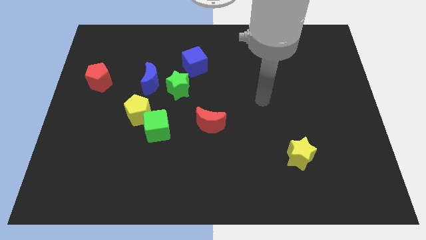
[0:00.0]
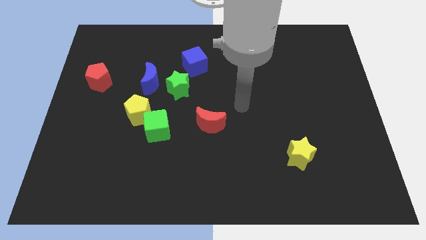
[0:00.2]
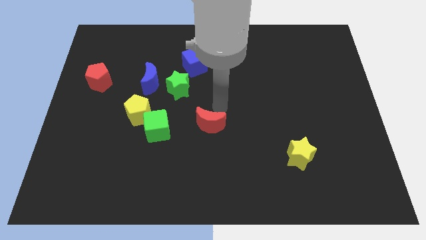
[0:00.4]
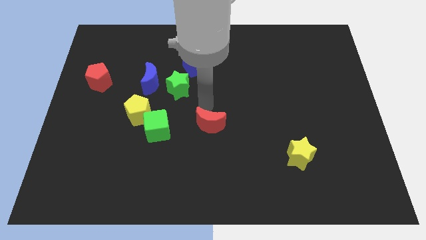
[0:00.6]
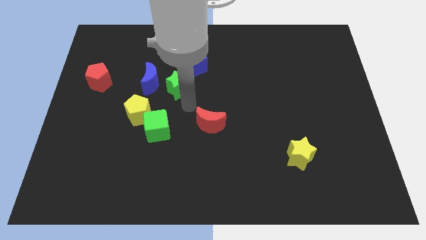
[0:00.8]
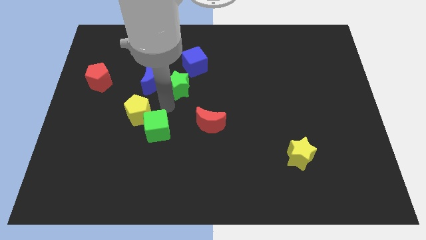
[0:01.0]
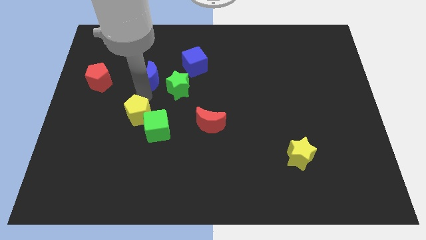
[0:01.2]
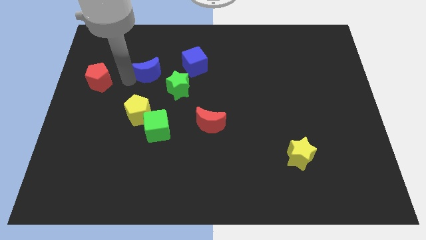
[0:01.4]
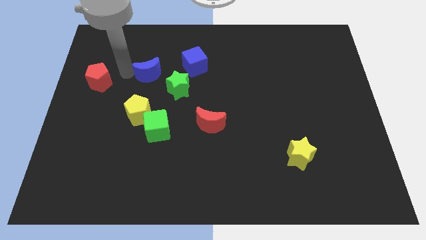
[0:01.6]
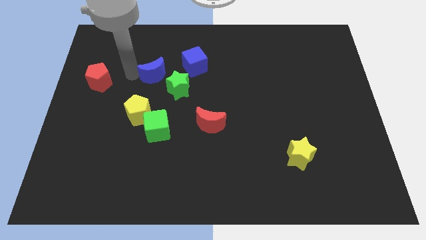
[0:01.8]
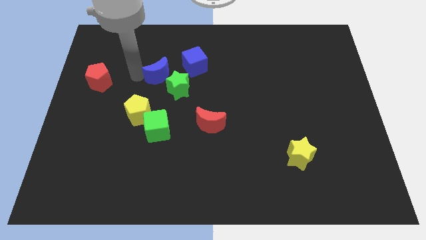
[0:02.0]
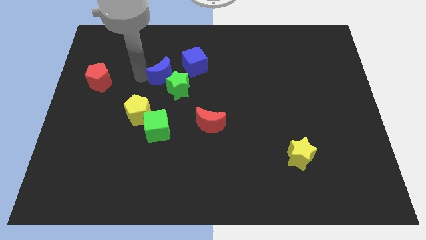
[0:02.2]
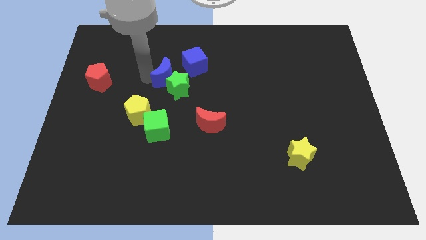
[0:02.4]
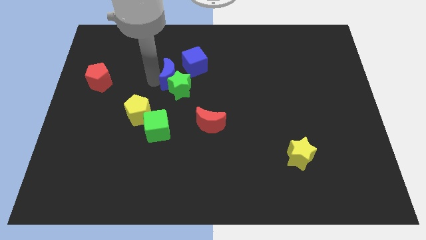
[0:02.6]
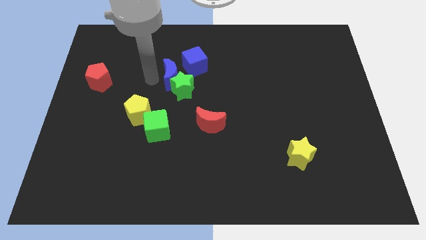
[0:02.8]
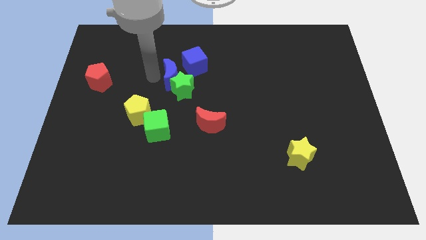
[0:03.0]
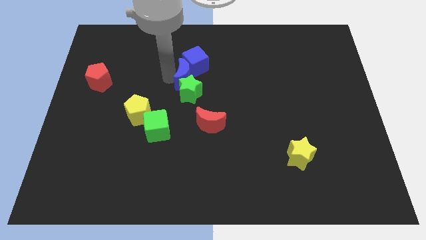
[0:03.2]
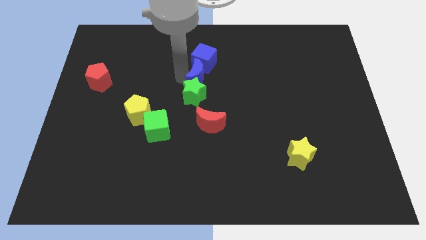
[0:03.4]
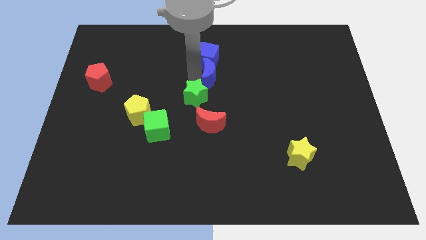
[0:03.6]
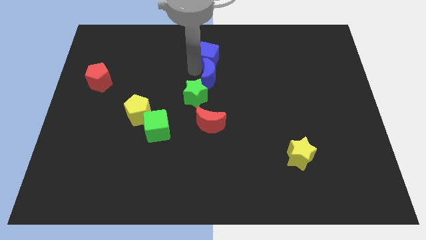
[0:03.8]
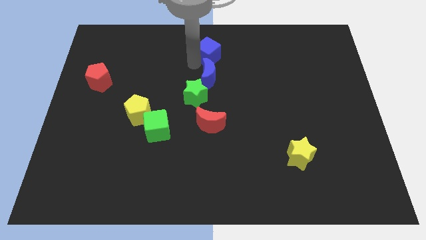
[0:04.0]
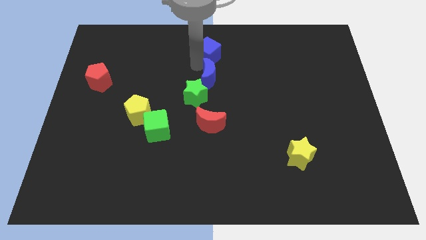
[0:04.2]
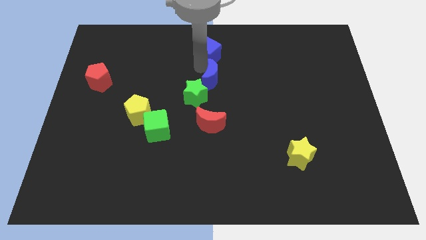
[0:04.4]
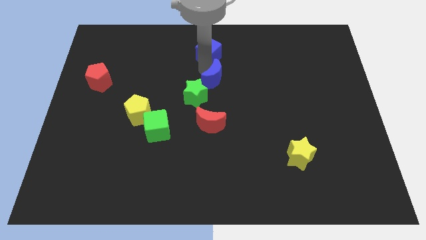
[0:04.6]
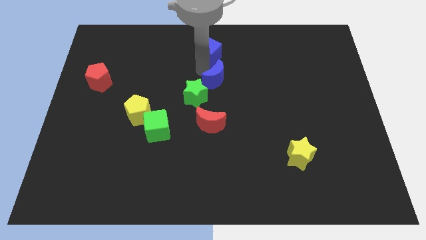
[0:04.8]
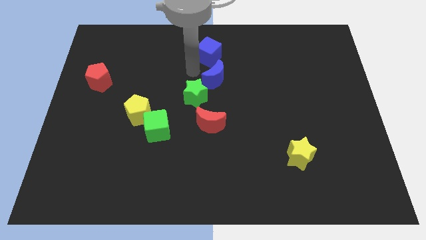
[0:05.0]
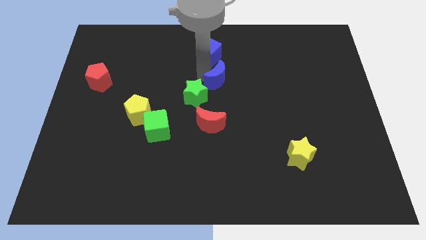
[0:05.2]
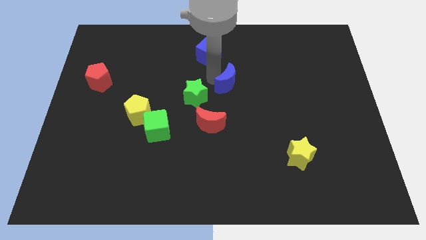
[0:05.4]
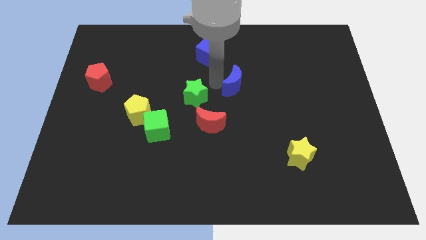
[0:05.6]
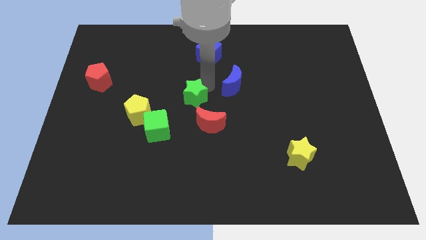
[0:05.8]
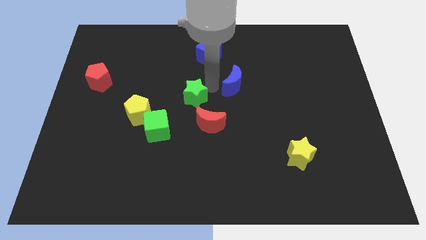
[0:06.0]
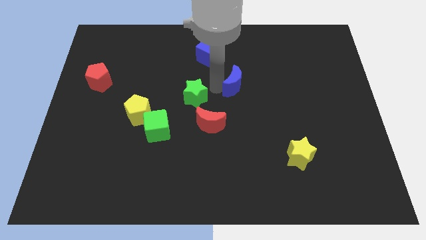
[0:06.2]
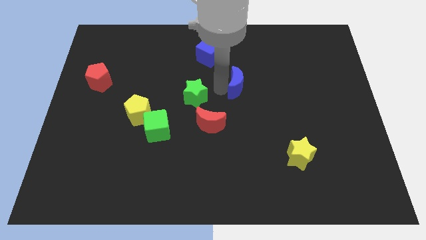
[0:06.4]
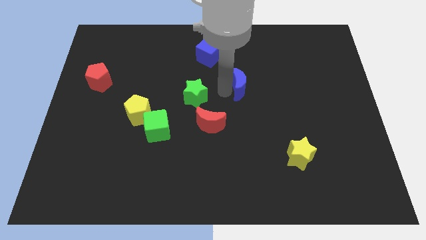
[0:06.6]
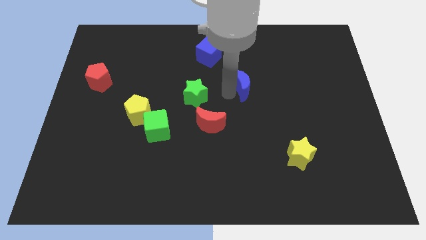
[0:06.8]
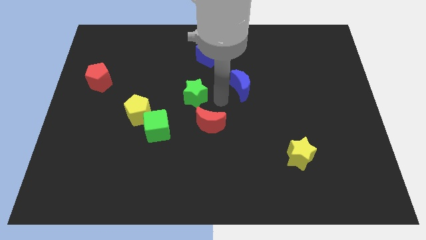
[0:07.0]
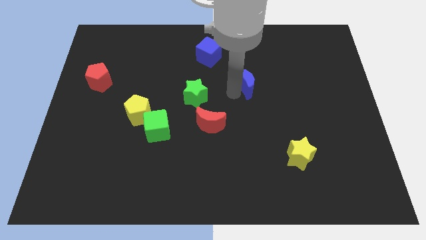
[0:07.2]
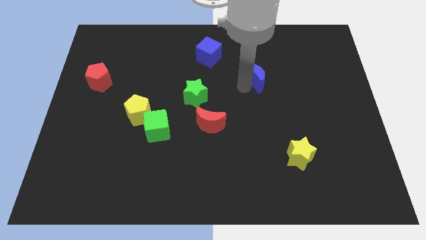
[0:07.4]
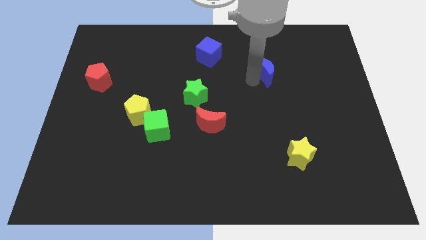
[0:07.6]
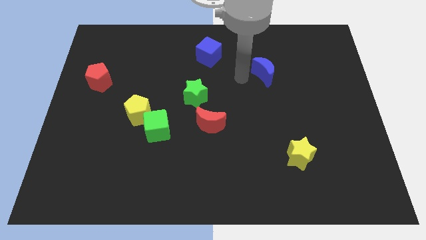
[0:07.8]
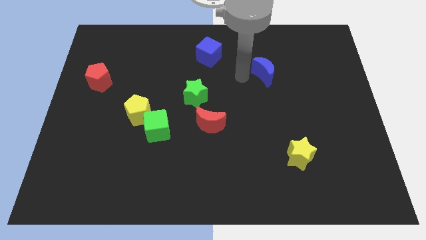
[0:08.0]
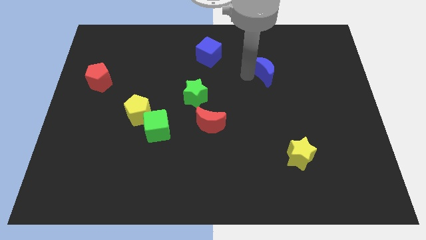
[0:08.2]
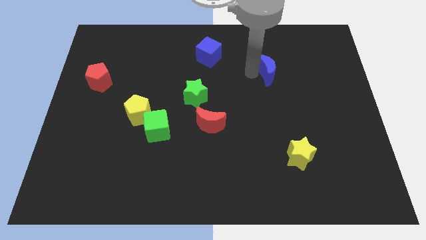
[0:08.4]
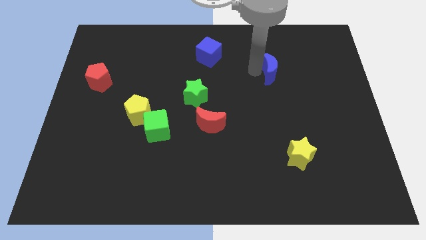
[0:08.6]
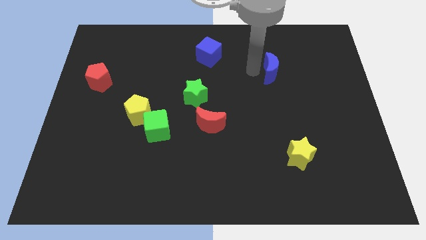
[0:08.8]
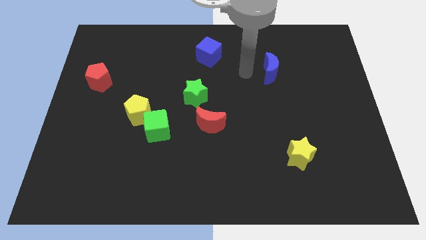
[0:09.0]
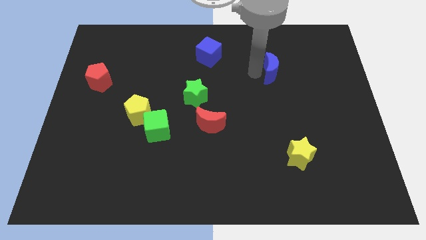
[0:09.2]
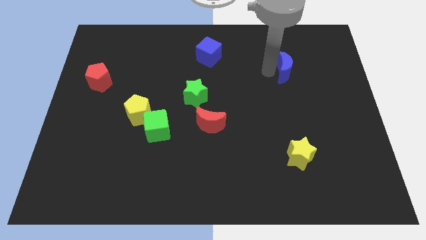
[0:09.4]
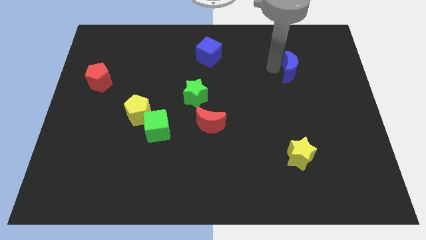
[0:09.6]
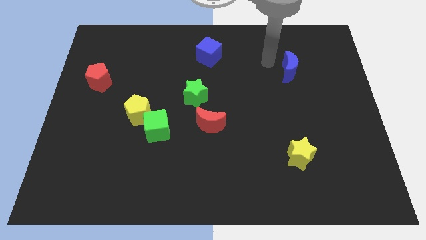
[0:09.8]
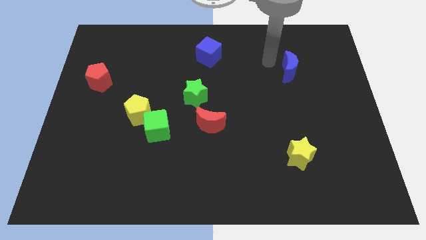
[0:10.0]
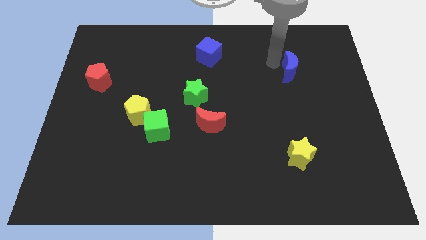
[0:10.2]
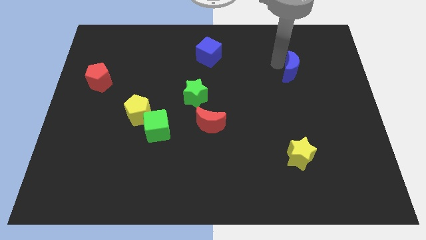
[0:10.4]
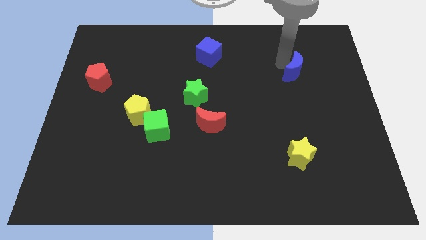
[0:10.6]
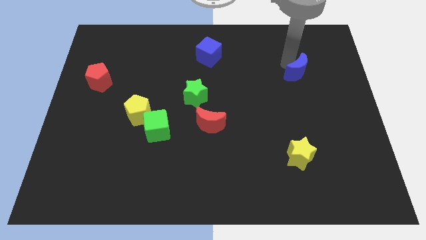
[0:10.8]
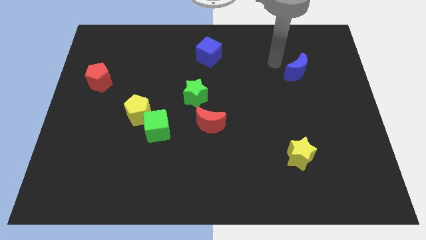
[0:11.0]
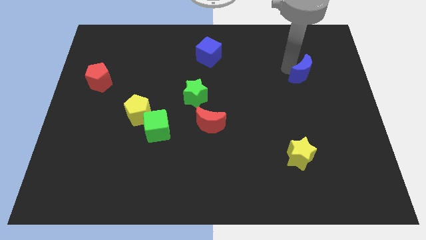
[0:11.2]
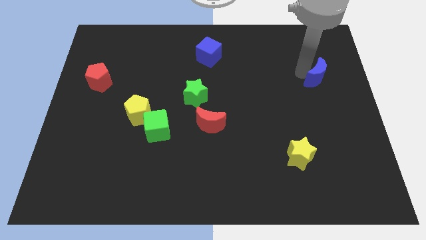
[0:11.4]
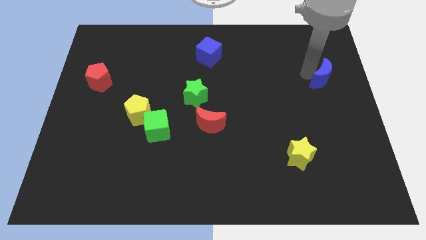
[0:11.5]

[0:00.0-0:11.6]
move the blue moon to the right side of the board
